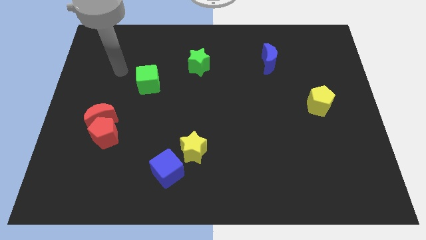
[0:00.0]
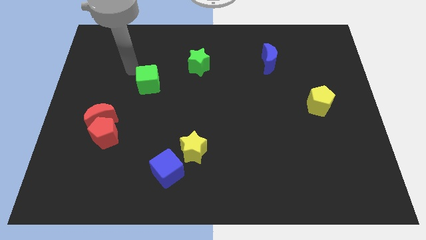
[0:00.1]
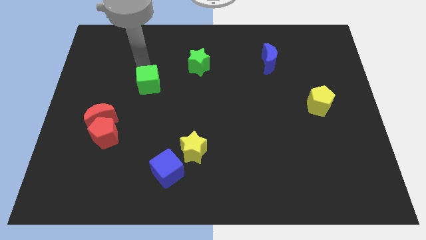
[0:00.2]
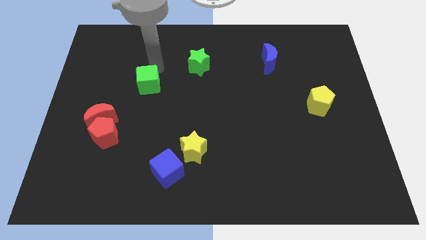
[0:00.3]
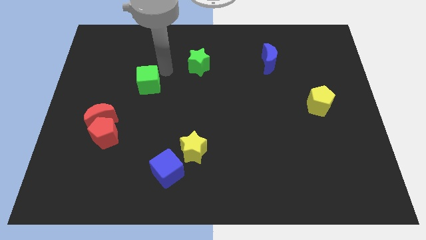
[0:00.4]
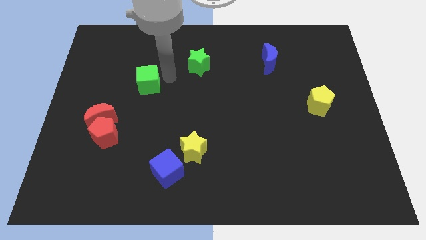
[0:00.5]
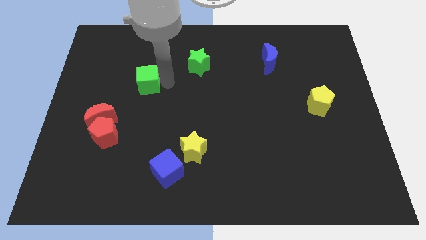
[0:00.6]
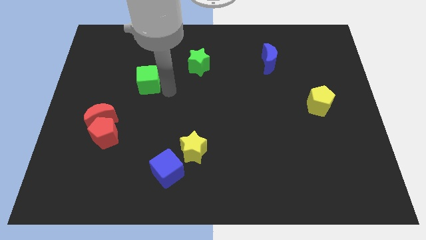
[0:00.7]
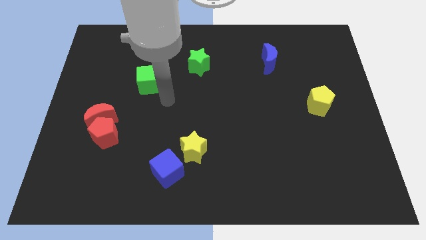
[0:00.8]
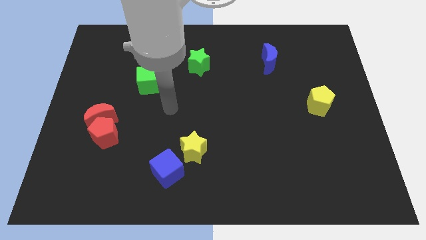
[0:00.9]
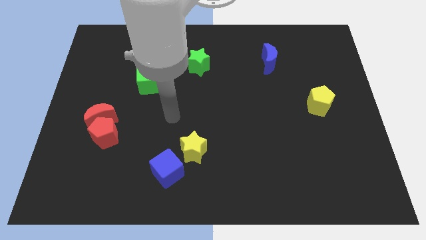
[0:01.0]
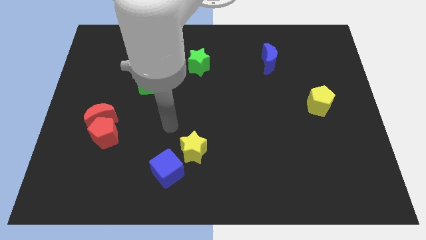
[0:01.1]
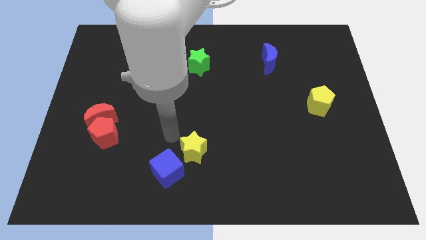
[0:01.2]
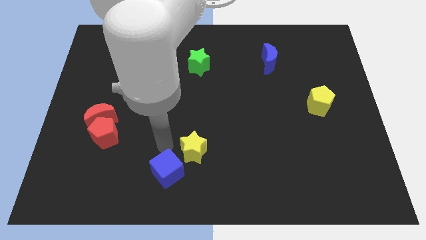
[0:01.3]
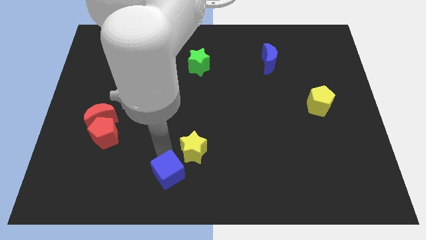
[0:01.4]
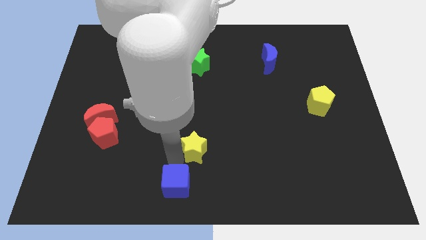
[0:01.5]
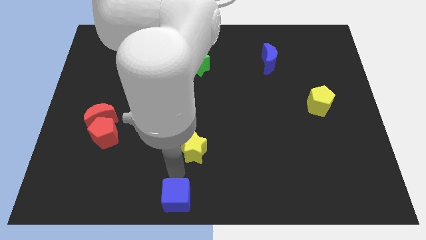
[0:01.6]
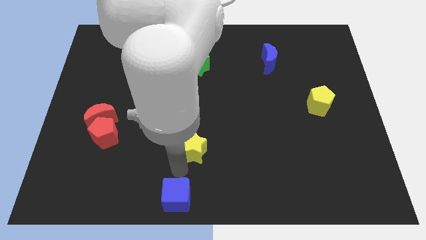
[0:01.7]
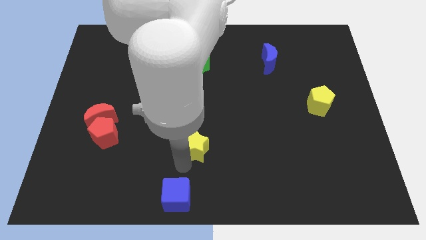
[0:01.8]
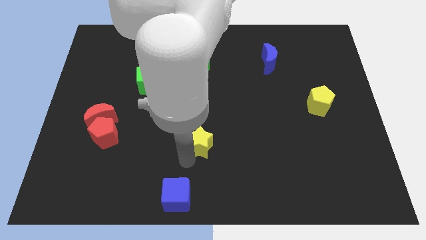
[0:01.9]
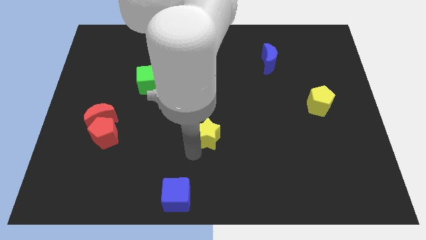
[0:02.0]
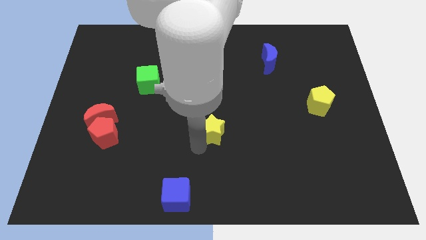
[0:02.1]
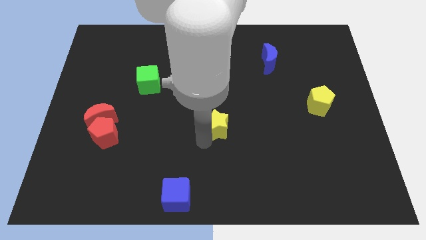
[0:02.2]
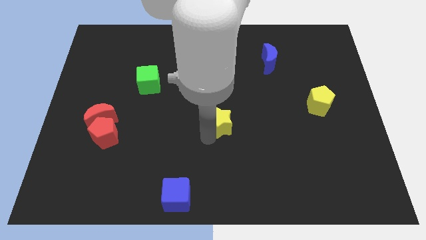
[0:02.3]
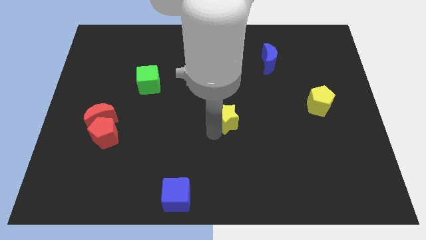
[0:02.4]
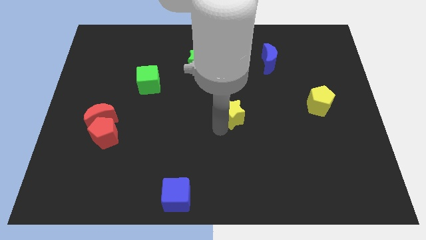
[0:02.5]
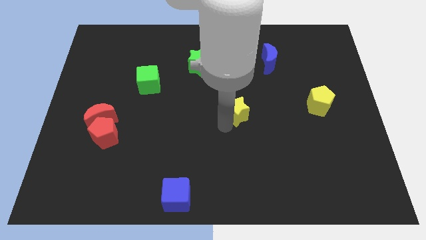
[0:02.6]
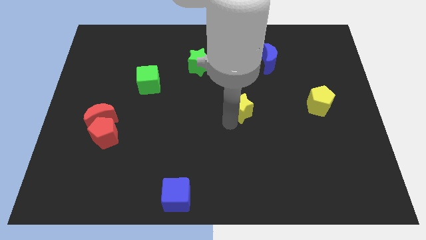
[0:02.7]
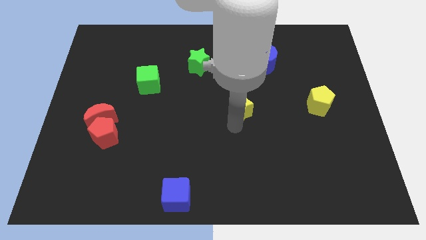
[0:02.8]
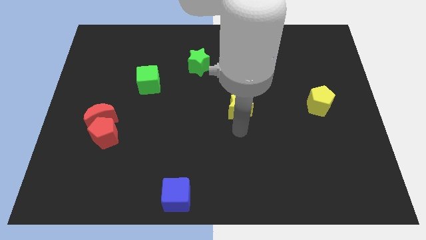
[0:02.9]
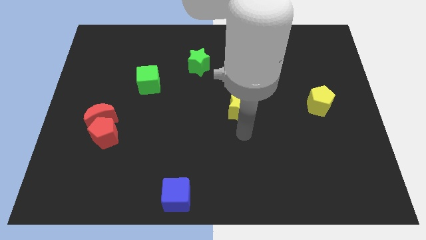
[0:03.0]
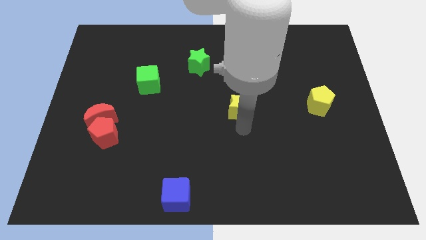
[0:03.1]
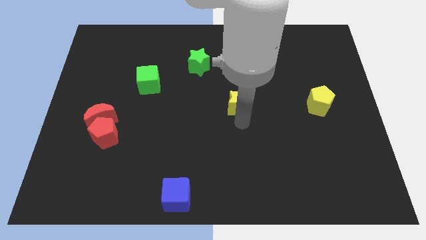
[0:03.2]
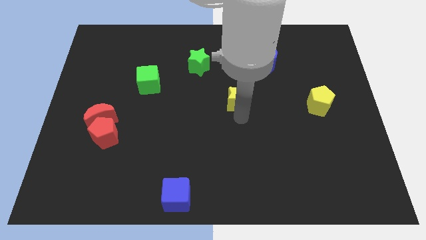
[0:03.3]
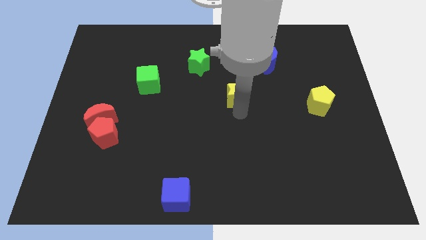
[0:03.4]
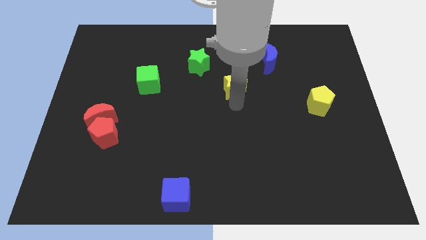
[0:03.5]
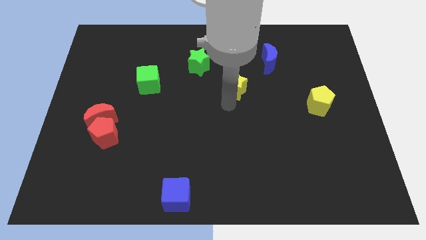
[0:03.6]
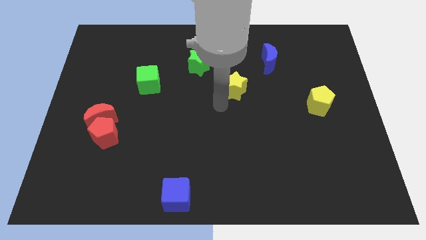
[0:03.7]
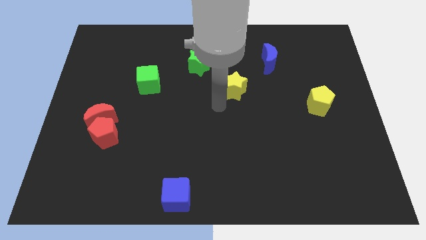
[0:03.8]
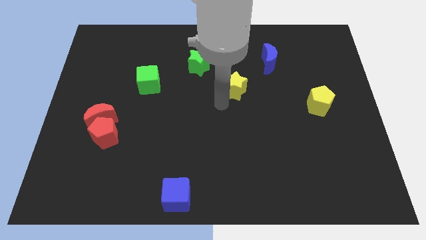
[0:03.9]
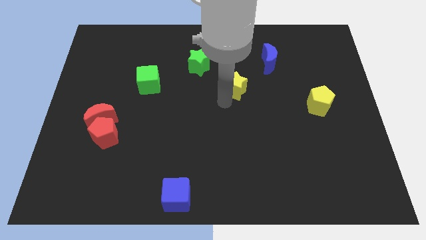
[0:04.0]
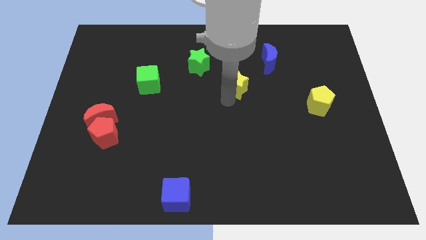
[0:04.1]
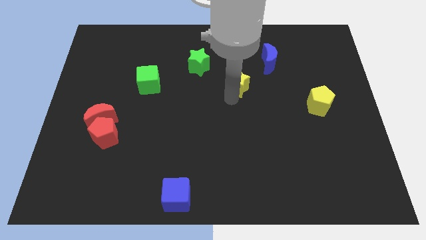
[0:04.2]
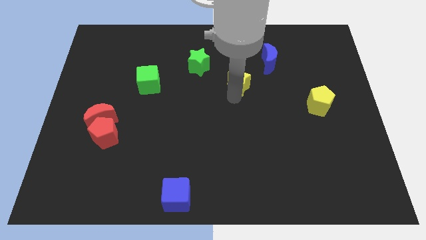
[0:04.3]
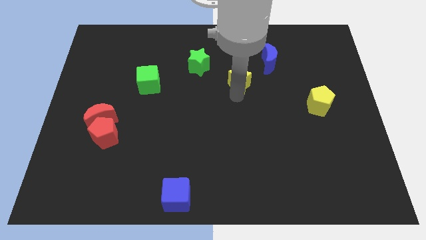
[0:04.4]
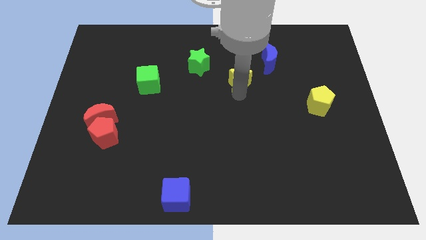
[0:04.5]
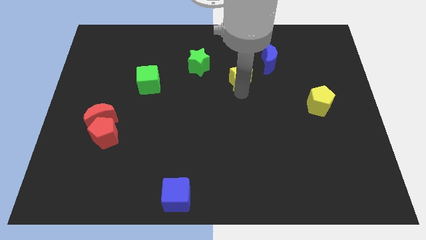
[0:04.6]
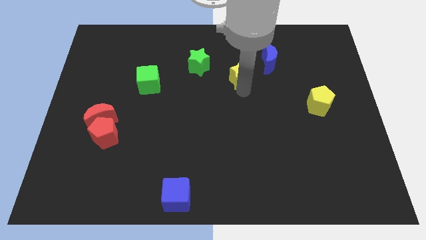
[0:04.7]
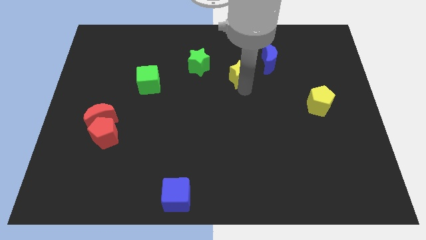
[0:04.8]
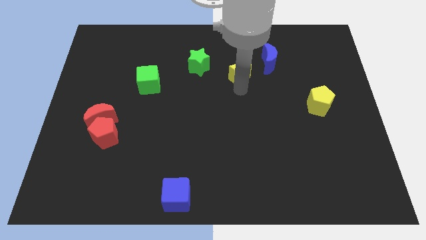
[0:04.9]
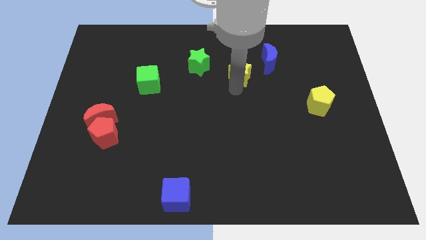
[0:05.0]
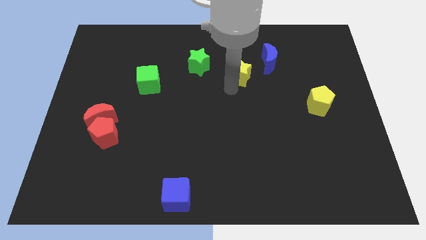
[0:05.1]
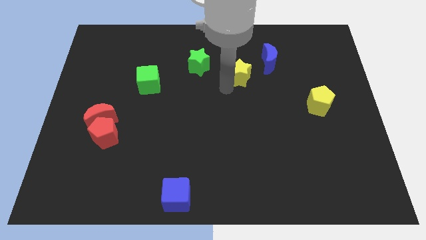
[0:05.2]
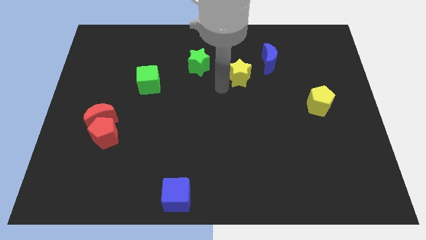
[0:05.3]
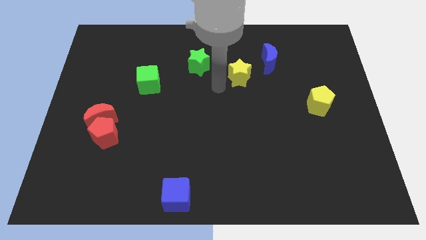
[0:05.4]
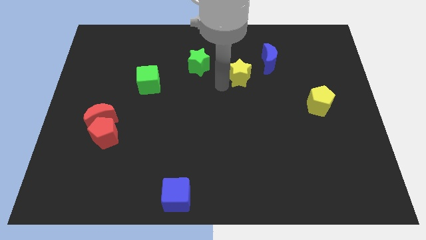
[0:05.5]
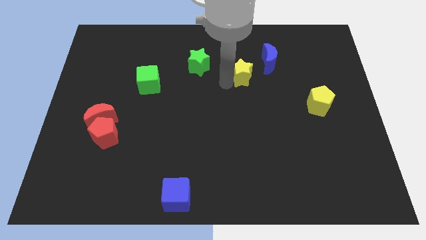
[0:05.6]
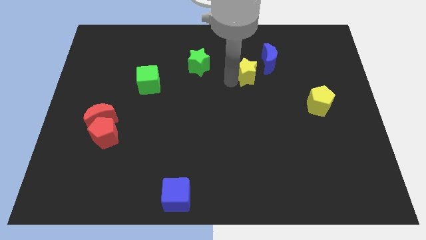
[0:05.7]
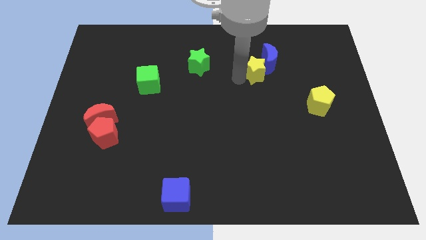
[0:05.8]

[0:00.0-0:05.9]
move the yellow star close to the blue moon
